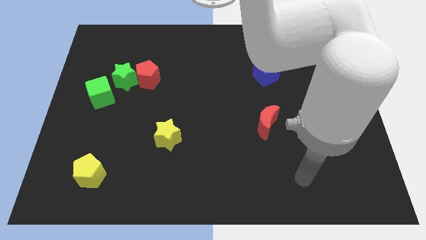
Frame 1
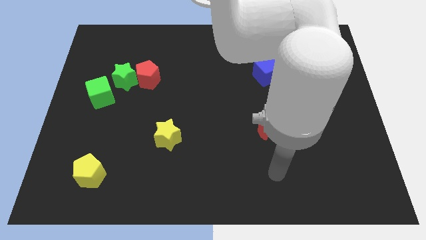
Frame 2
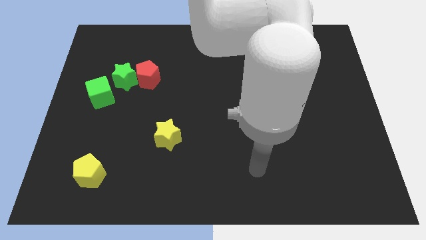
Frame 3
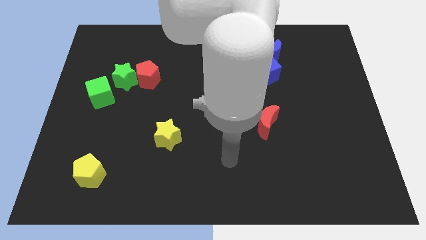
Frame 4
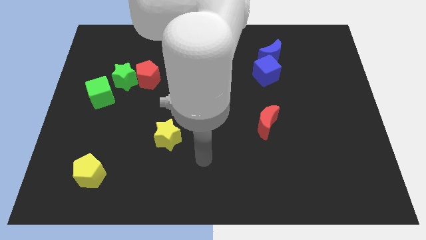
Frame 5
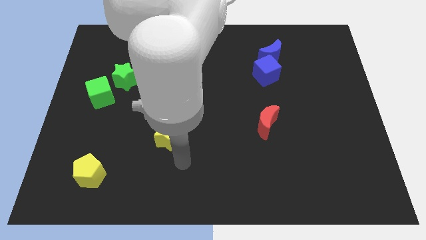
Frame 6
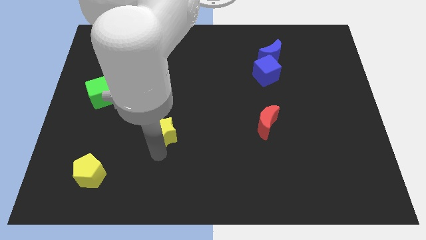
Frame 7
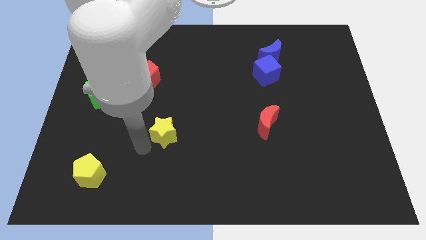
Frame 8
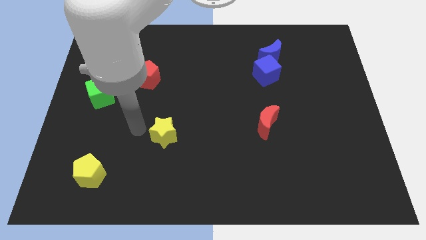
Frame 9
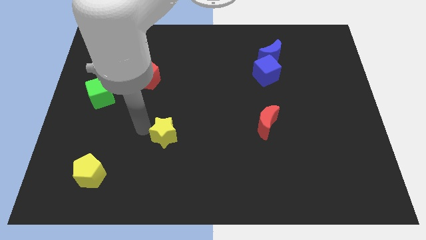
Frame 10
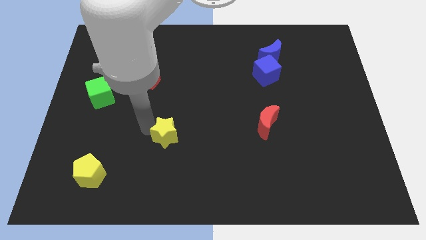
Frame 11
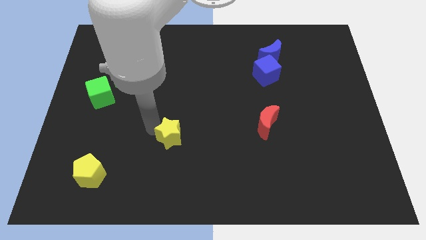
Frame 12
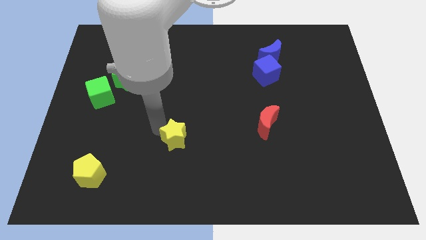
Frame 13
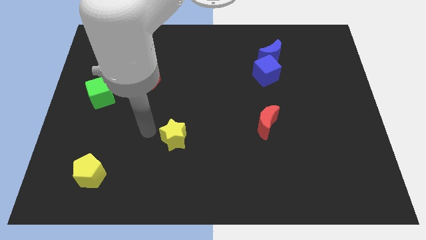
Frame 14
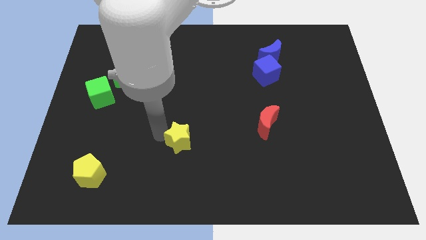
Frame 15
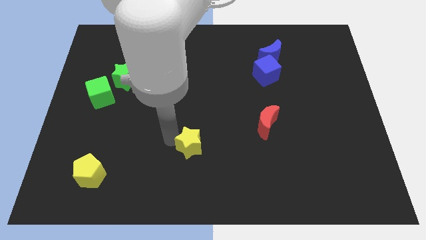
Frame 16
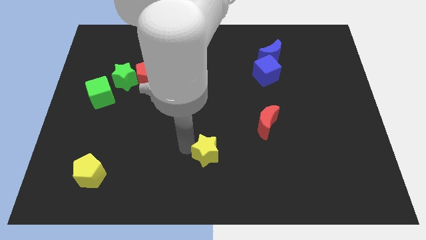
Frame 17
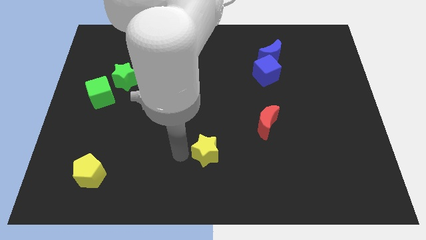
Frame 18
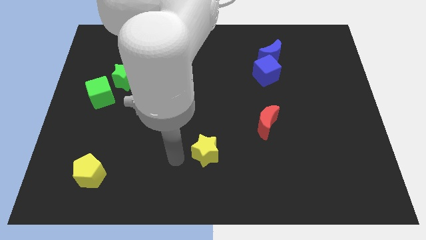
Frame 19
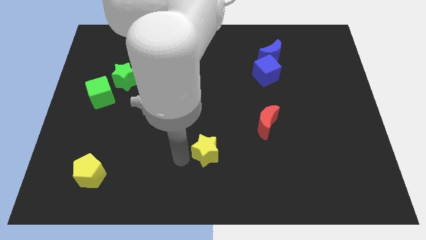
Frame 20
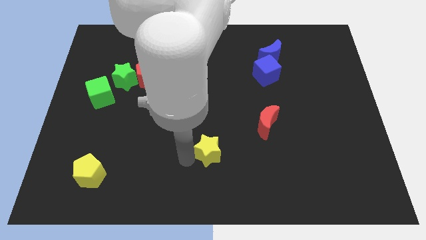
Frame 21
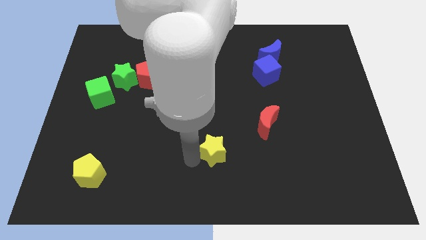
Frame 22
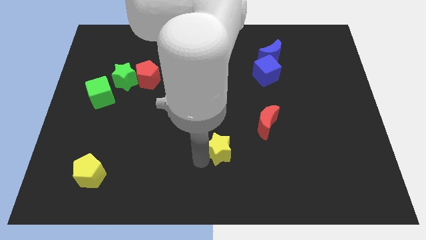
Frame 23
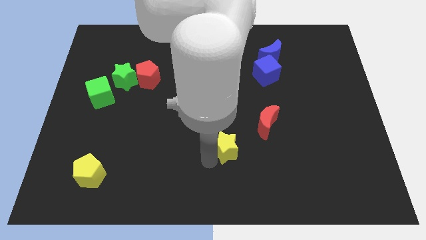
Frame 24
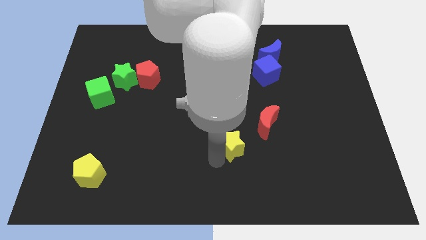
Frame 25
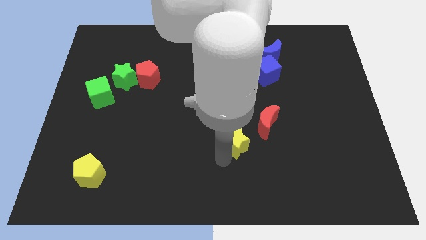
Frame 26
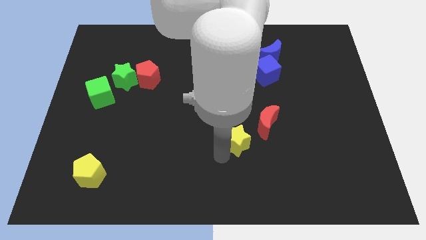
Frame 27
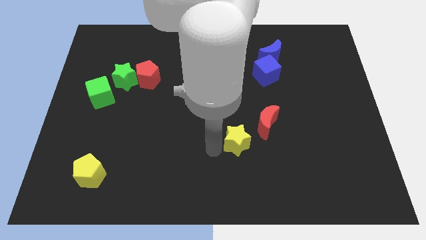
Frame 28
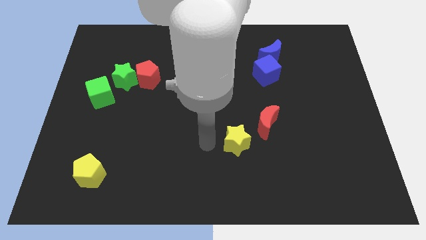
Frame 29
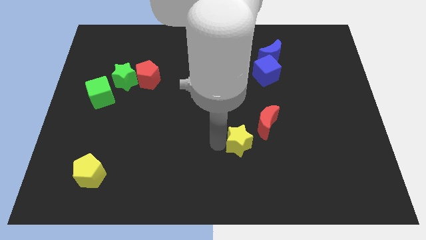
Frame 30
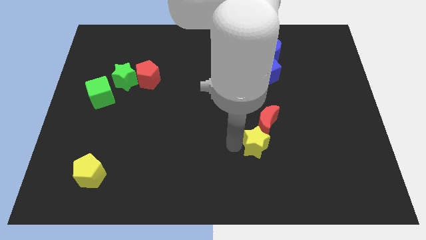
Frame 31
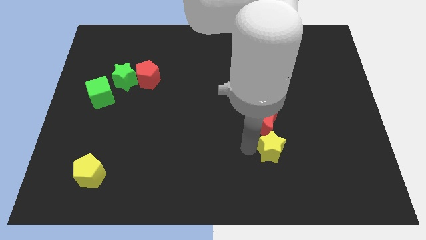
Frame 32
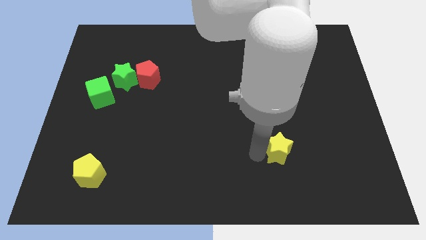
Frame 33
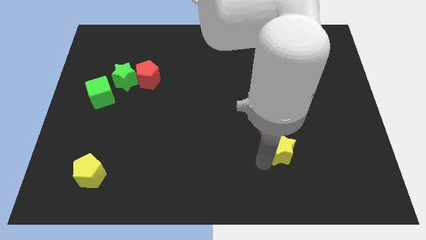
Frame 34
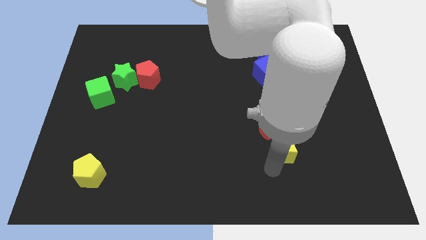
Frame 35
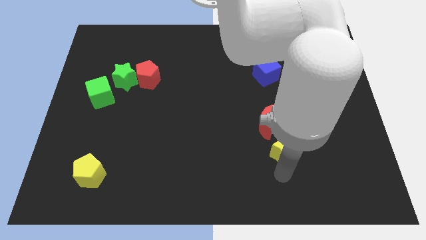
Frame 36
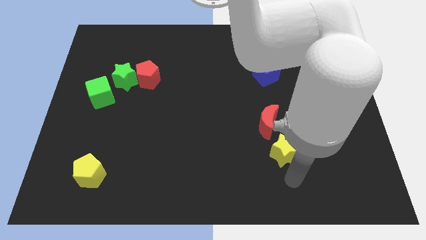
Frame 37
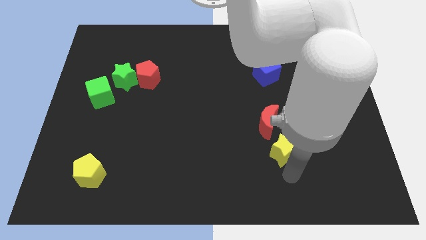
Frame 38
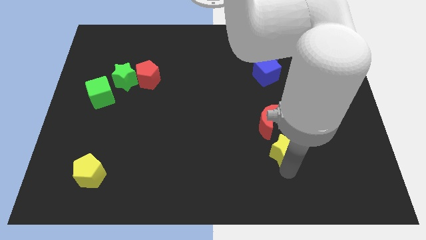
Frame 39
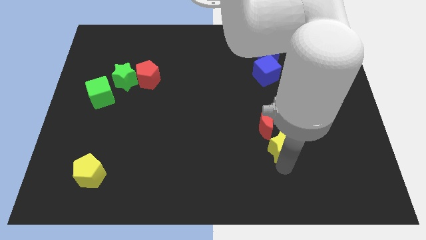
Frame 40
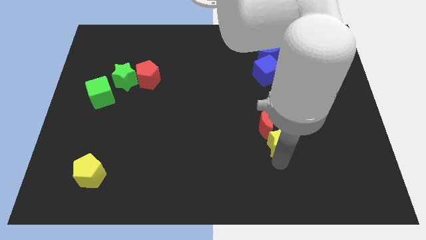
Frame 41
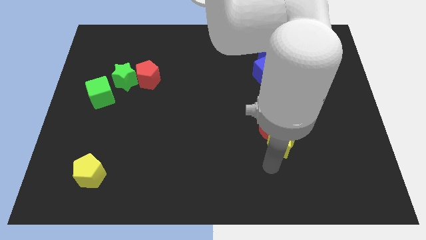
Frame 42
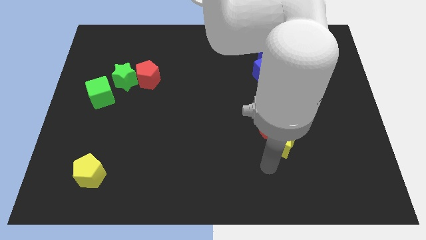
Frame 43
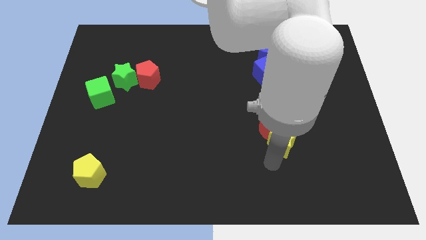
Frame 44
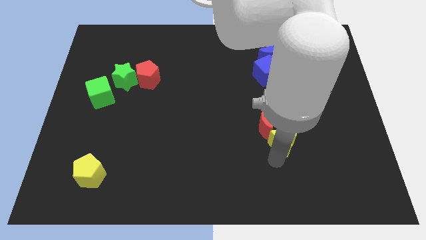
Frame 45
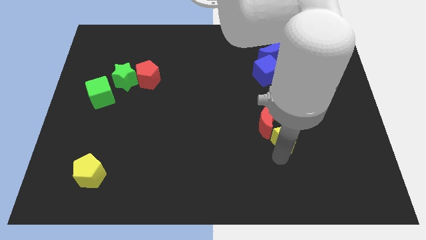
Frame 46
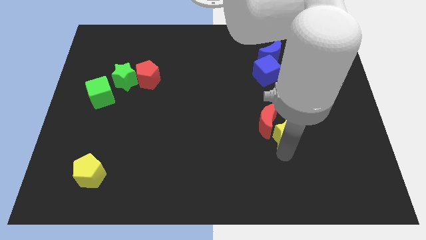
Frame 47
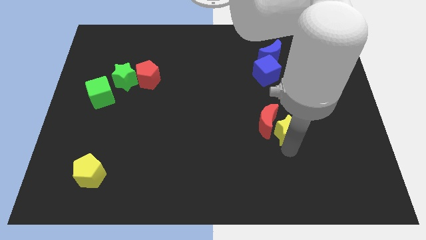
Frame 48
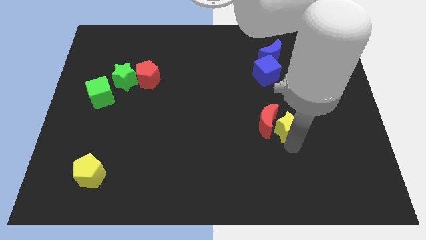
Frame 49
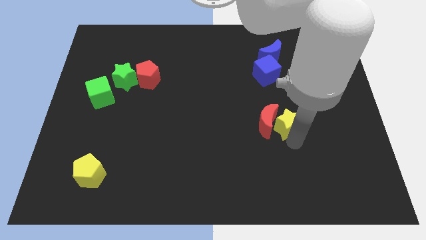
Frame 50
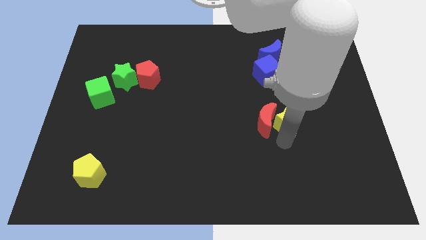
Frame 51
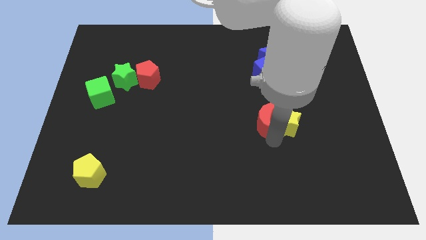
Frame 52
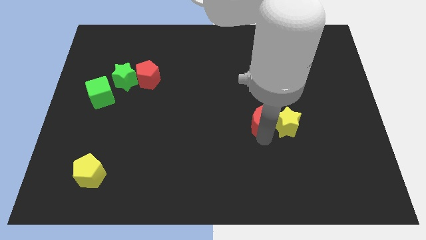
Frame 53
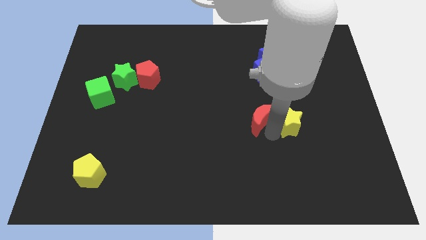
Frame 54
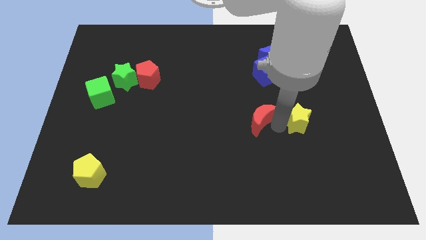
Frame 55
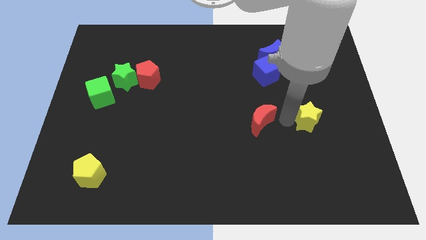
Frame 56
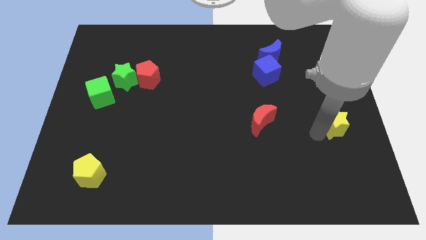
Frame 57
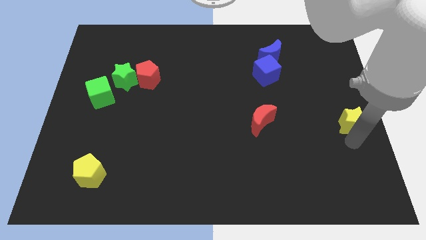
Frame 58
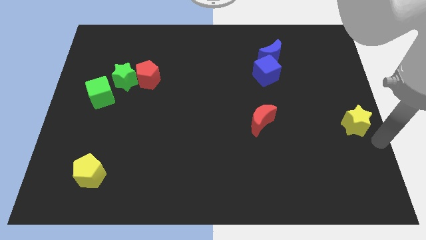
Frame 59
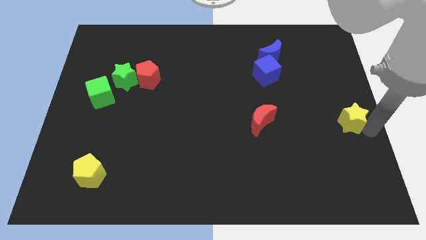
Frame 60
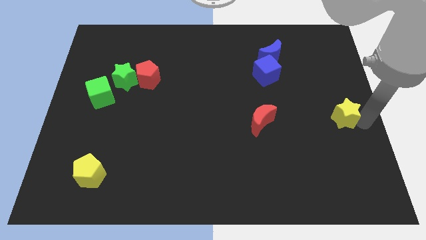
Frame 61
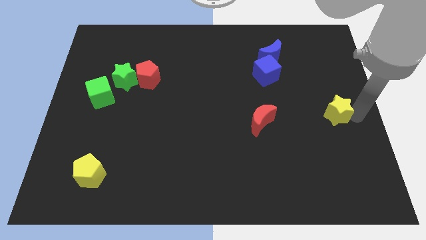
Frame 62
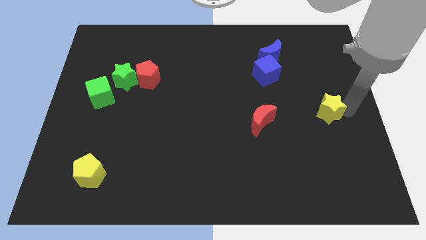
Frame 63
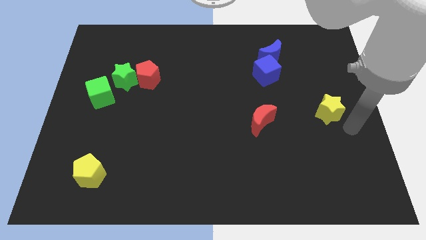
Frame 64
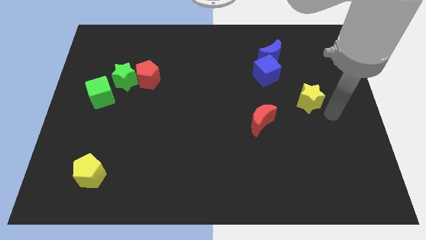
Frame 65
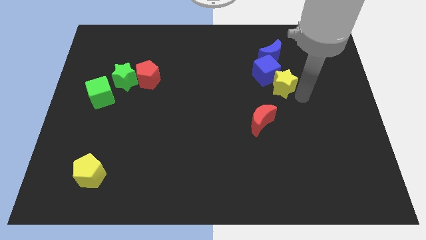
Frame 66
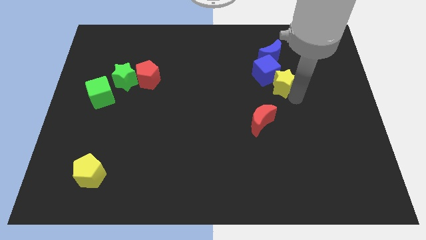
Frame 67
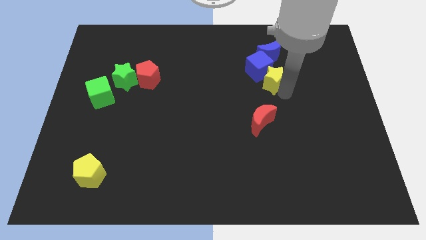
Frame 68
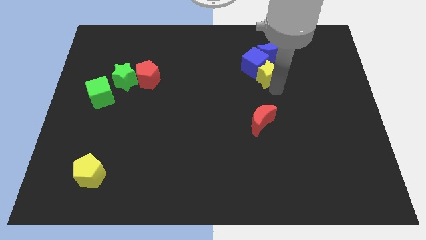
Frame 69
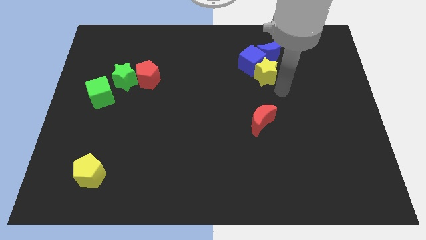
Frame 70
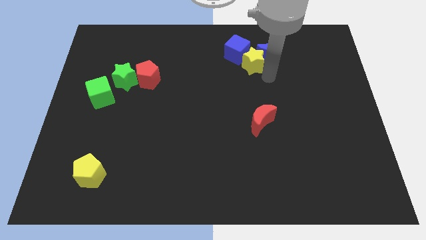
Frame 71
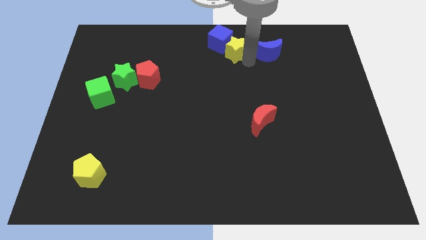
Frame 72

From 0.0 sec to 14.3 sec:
move the yellow star to the towards your base

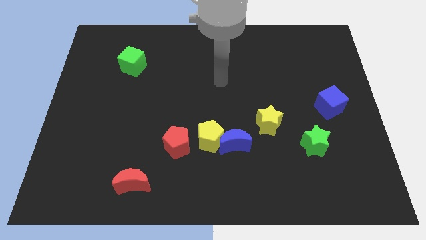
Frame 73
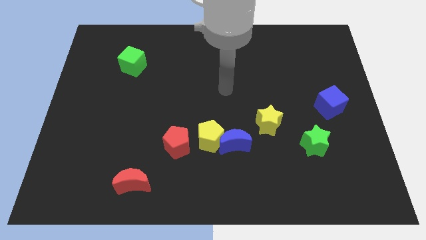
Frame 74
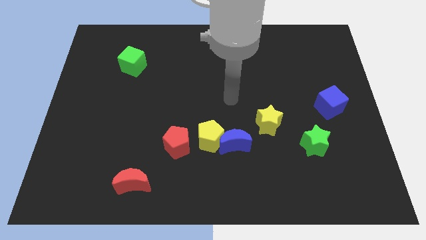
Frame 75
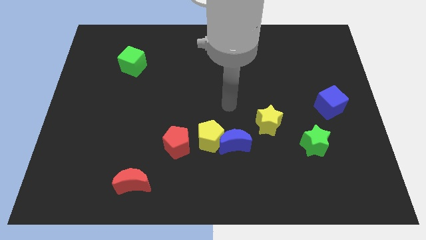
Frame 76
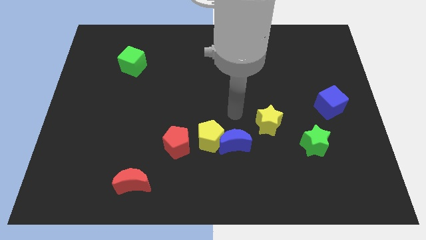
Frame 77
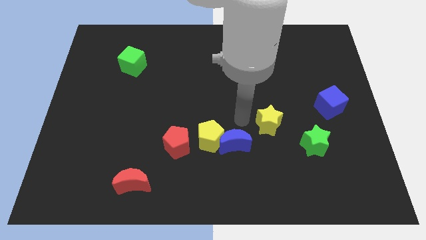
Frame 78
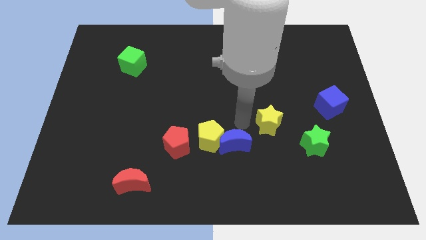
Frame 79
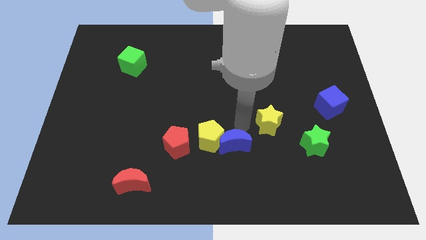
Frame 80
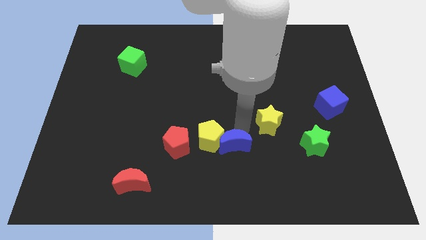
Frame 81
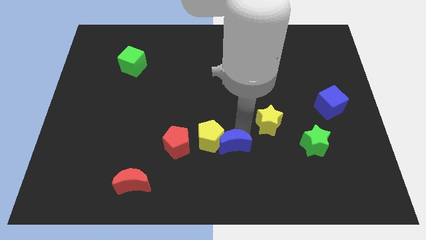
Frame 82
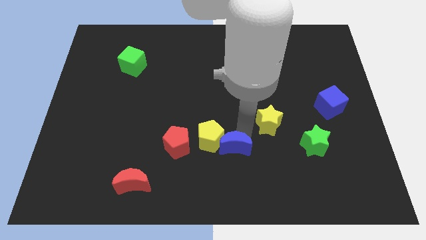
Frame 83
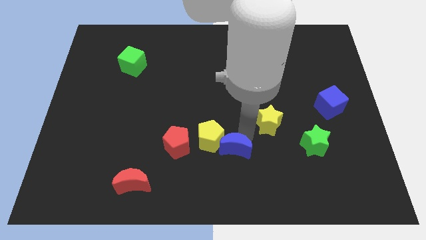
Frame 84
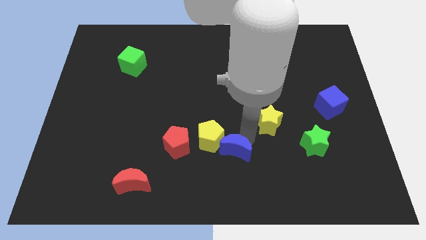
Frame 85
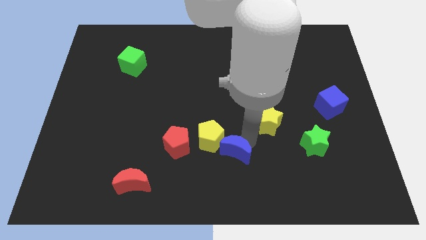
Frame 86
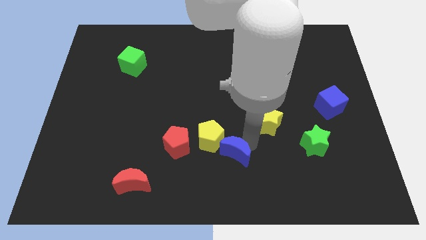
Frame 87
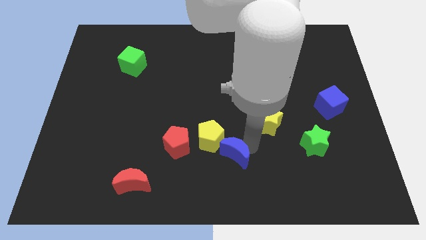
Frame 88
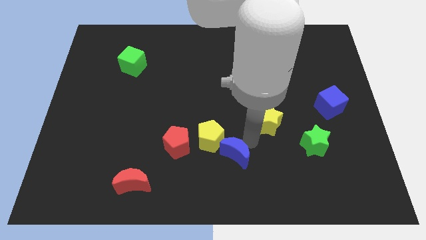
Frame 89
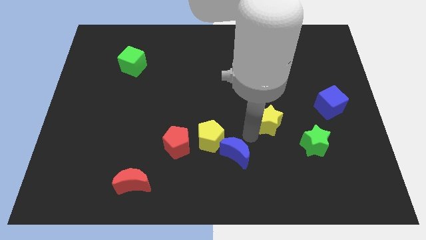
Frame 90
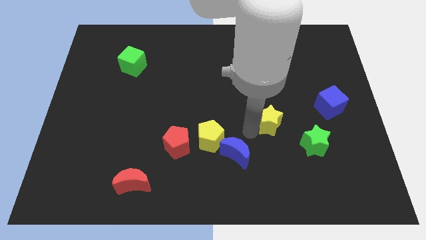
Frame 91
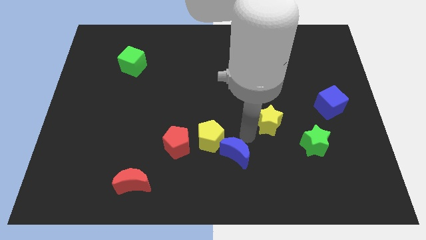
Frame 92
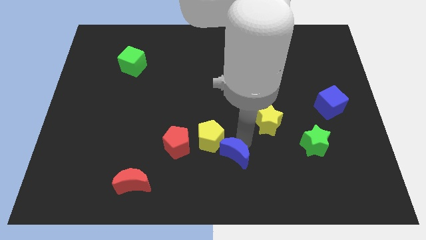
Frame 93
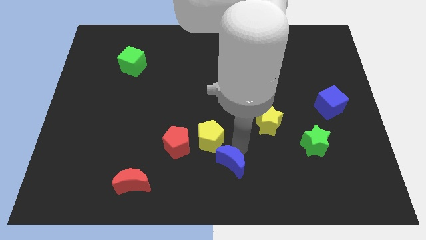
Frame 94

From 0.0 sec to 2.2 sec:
push the blue moon to the bottom side
